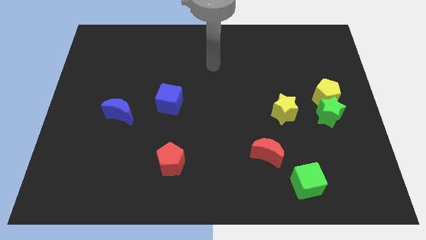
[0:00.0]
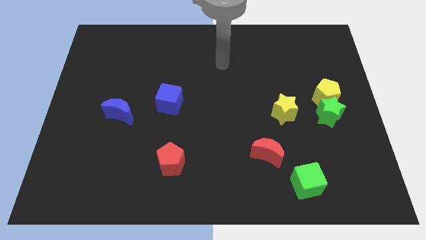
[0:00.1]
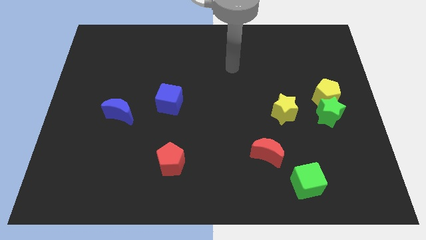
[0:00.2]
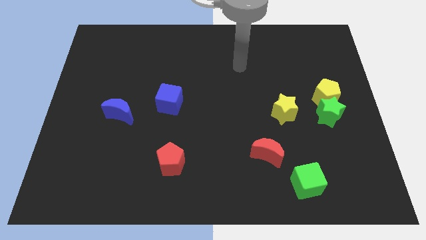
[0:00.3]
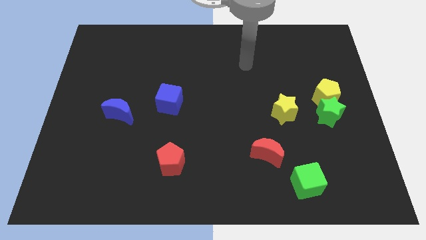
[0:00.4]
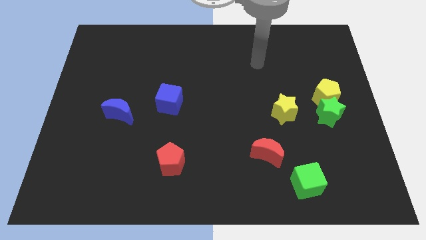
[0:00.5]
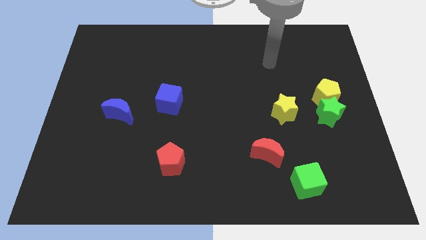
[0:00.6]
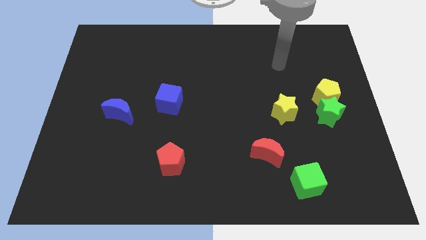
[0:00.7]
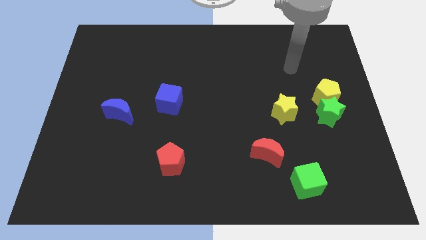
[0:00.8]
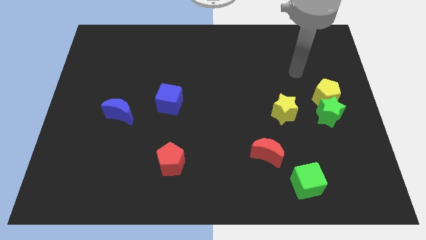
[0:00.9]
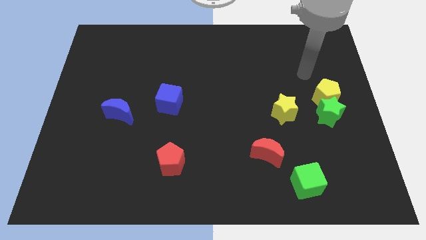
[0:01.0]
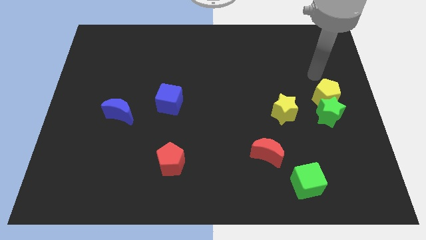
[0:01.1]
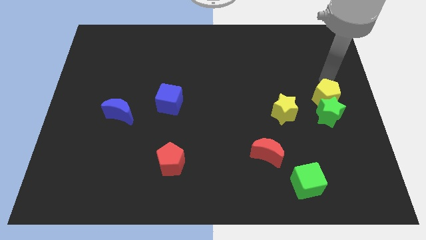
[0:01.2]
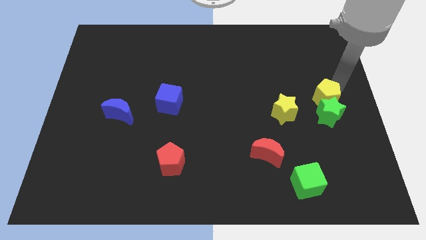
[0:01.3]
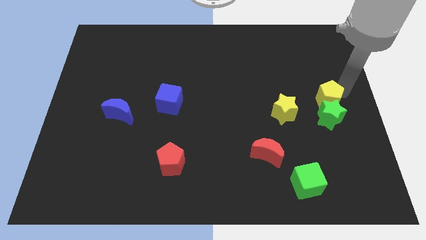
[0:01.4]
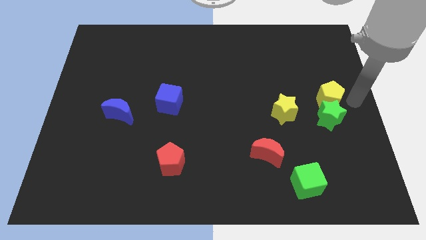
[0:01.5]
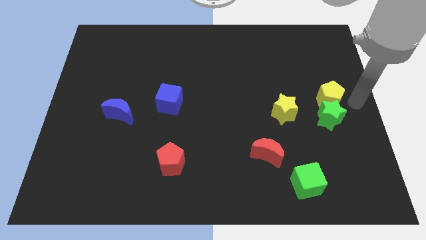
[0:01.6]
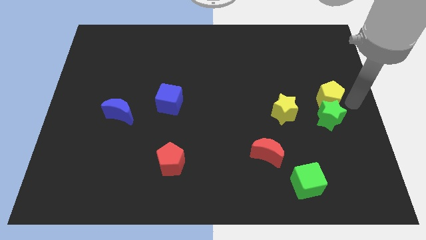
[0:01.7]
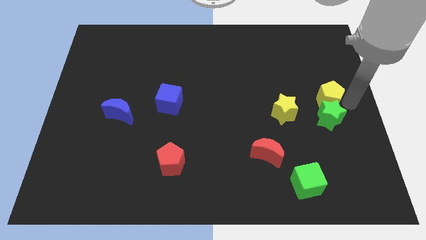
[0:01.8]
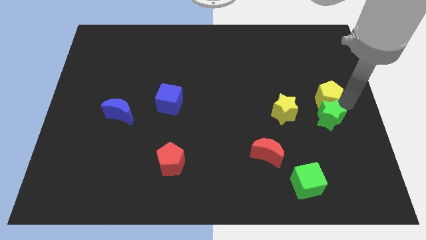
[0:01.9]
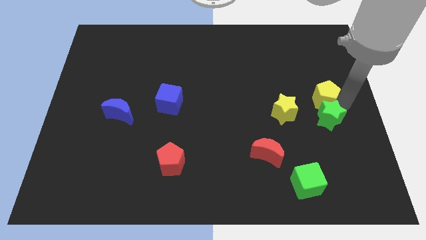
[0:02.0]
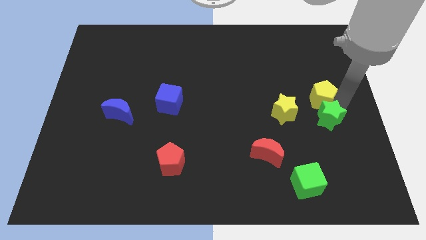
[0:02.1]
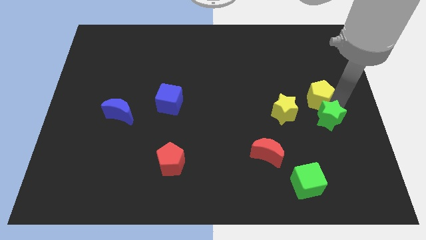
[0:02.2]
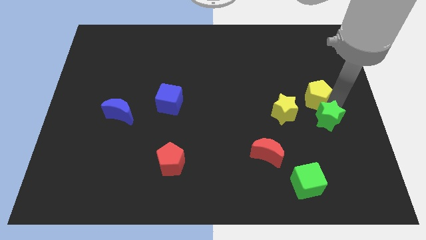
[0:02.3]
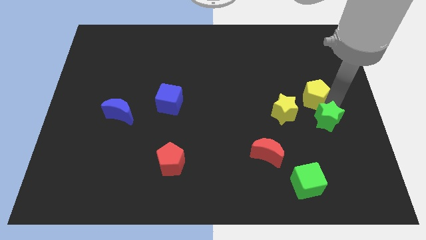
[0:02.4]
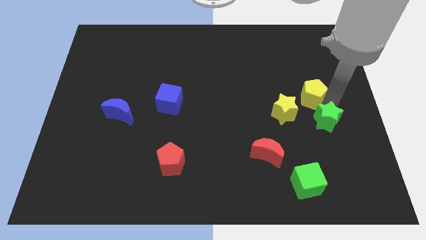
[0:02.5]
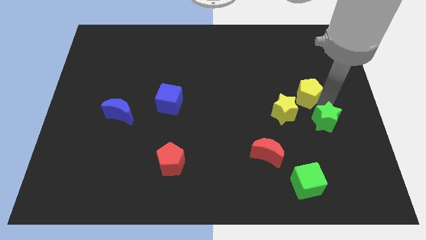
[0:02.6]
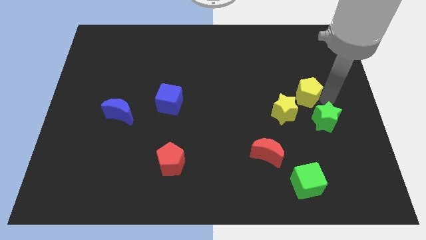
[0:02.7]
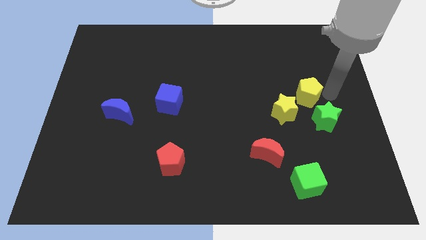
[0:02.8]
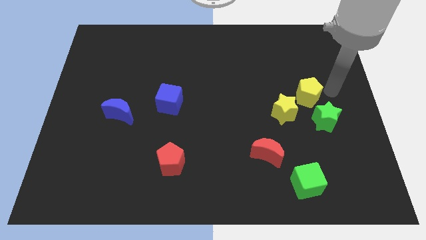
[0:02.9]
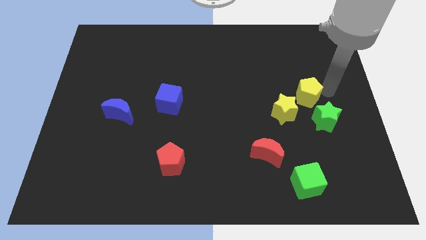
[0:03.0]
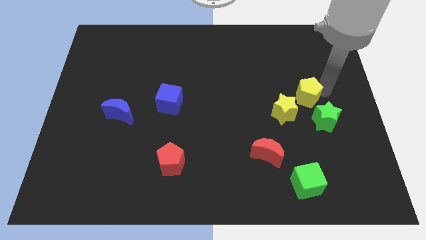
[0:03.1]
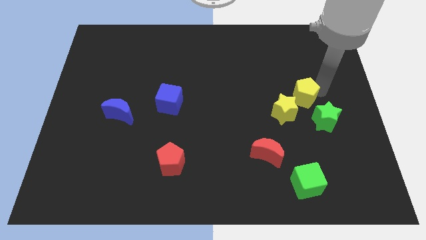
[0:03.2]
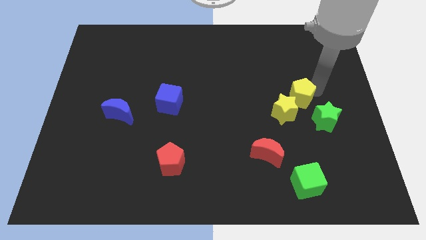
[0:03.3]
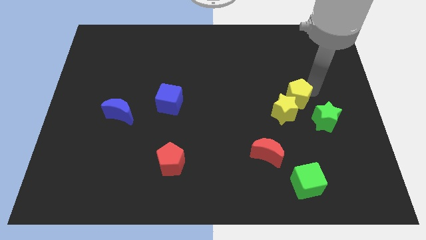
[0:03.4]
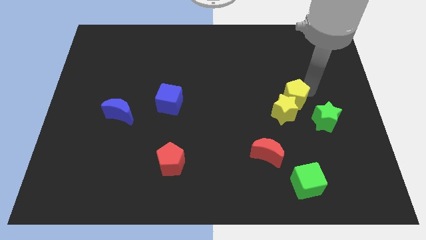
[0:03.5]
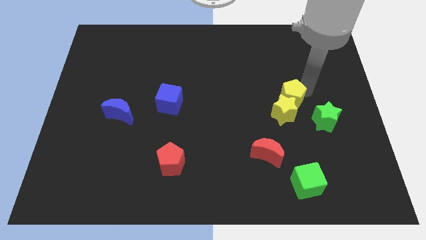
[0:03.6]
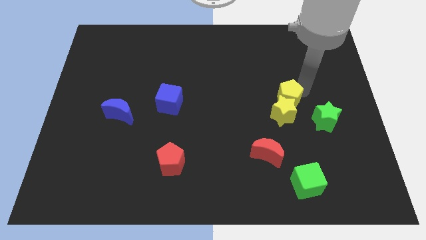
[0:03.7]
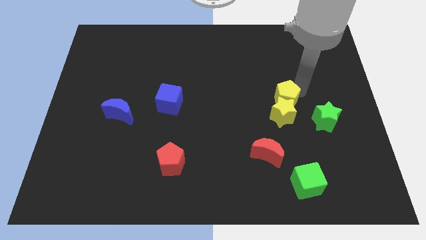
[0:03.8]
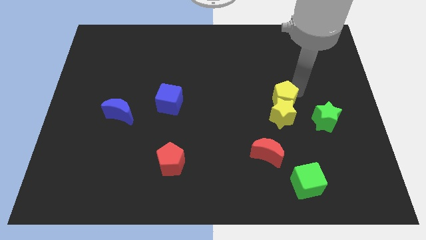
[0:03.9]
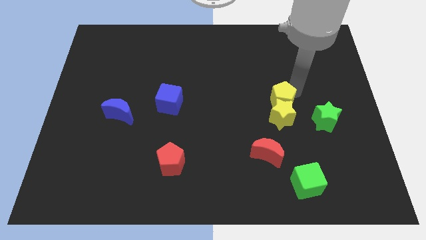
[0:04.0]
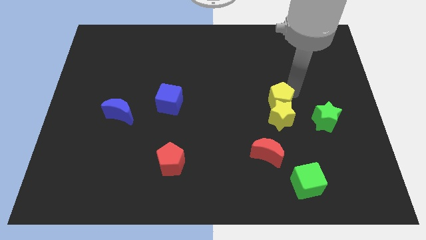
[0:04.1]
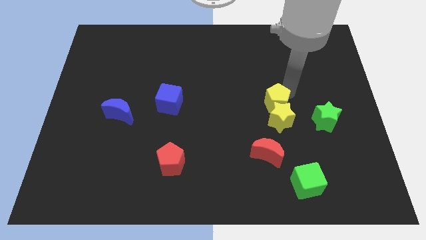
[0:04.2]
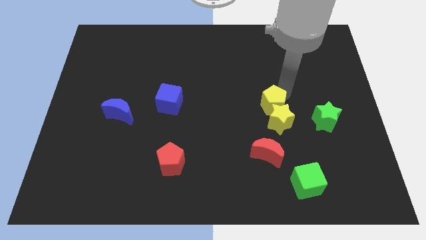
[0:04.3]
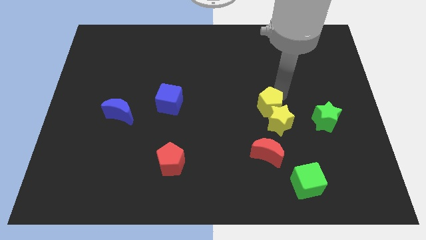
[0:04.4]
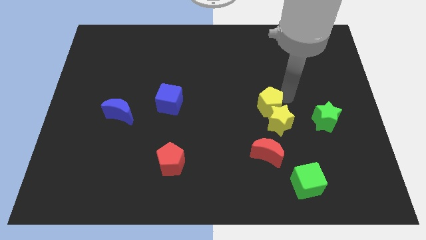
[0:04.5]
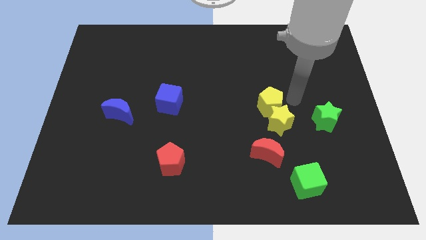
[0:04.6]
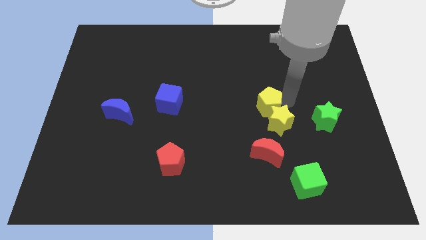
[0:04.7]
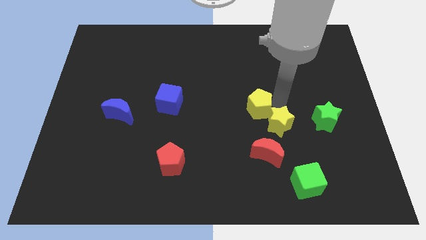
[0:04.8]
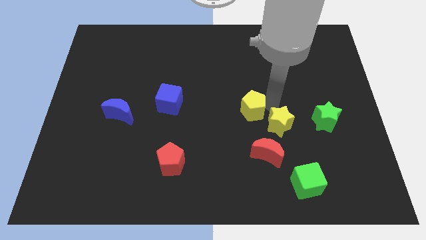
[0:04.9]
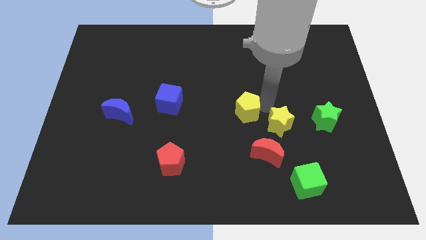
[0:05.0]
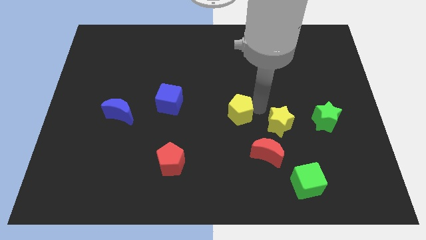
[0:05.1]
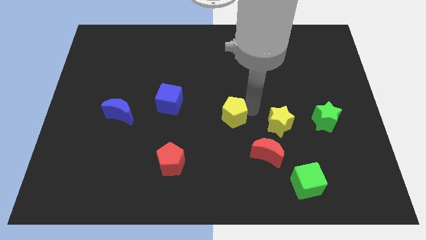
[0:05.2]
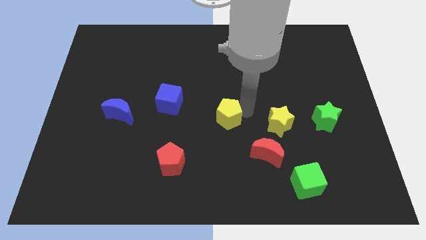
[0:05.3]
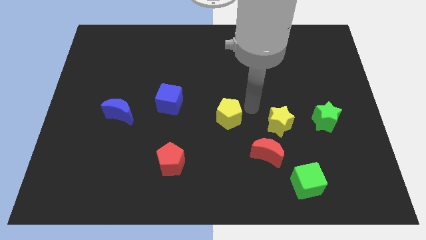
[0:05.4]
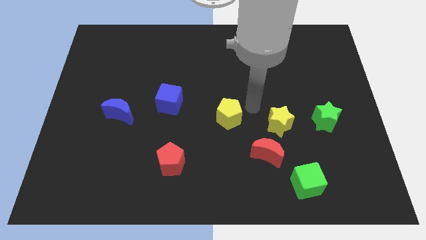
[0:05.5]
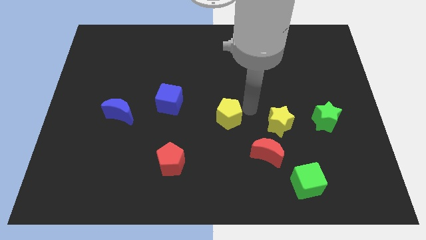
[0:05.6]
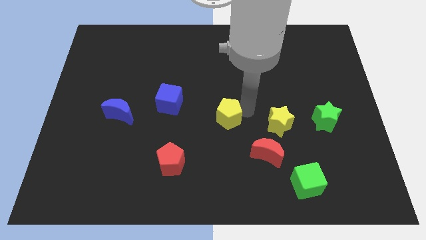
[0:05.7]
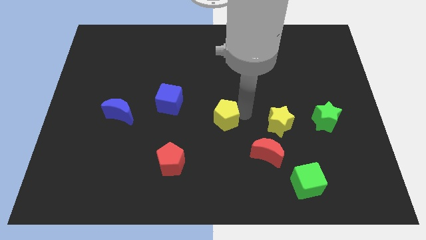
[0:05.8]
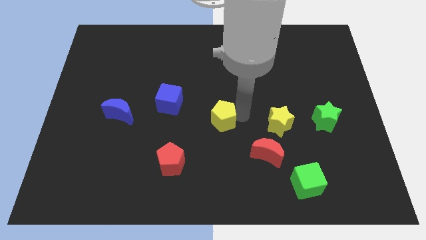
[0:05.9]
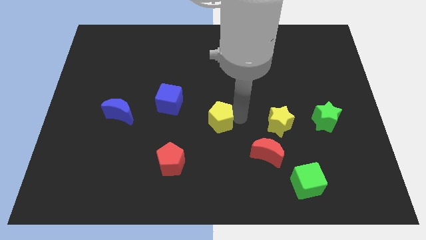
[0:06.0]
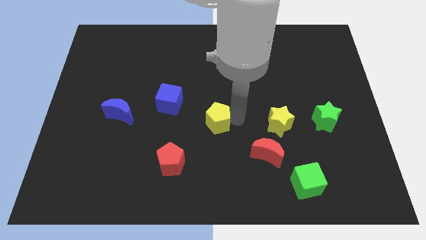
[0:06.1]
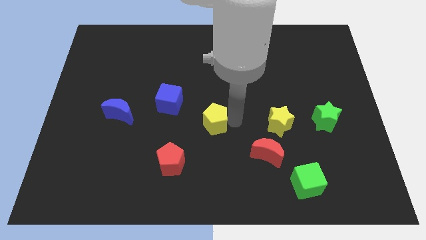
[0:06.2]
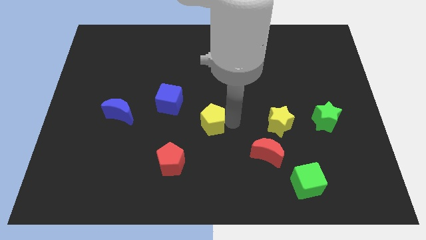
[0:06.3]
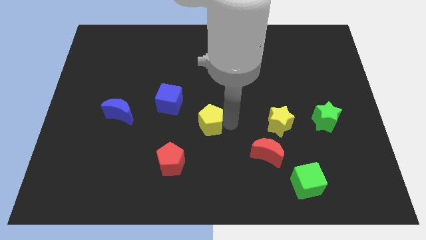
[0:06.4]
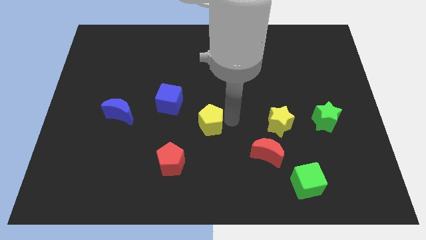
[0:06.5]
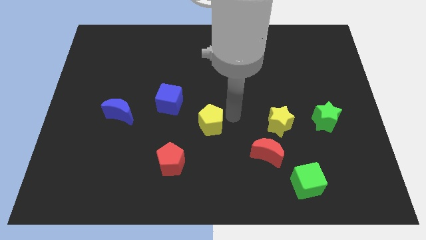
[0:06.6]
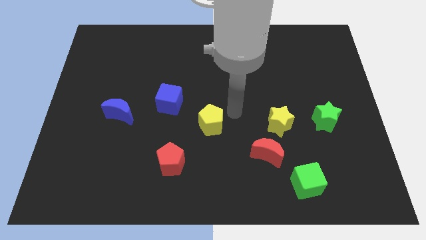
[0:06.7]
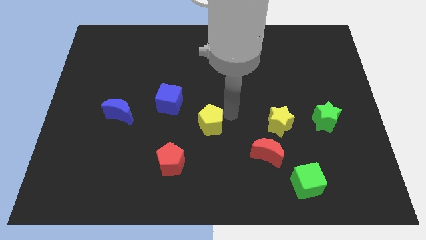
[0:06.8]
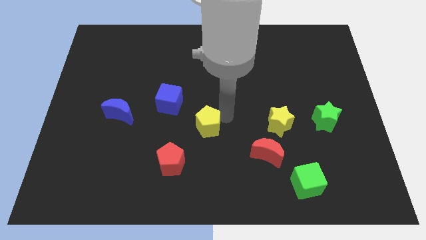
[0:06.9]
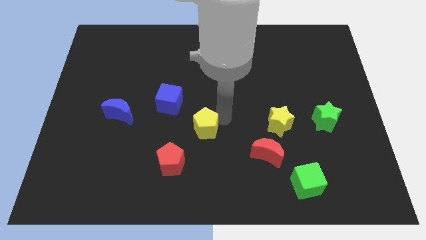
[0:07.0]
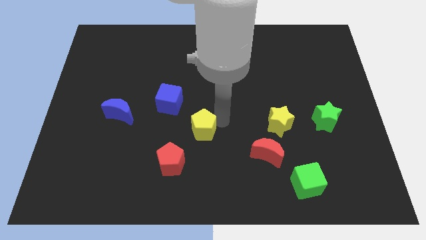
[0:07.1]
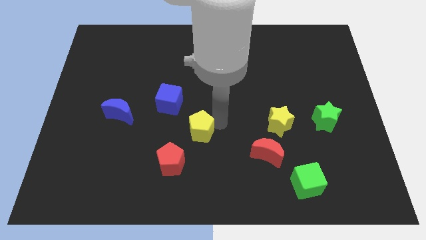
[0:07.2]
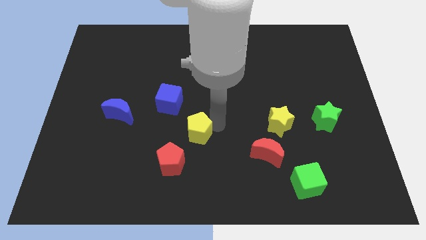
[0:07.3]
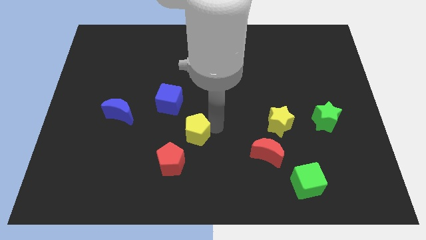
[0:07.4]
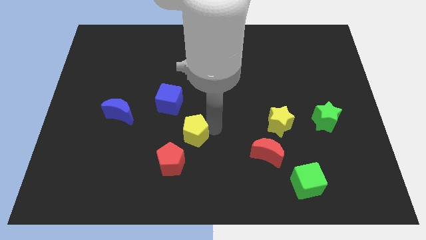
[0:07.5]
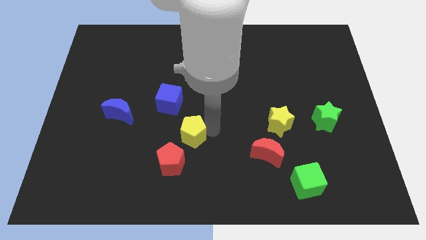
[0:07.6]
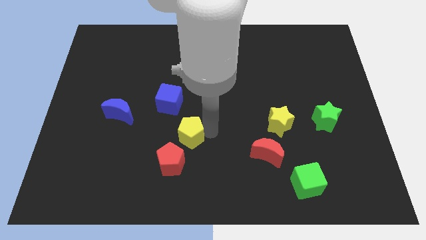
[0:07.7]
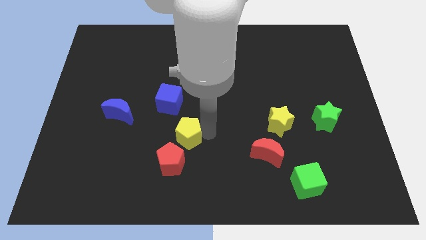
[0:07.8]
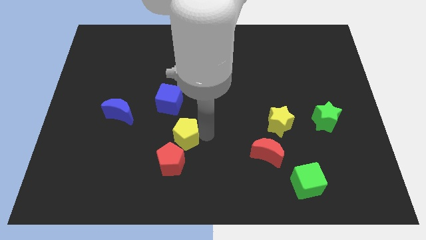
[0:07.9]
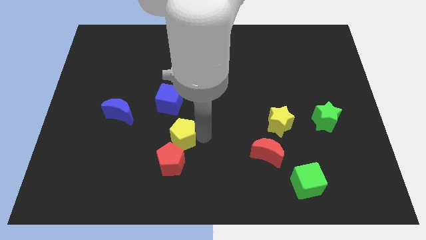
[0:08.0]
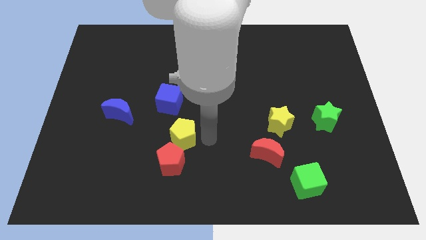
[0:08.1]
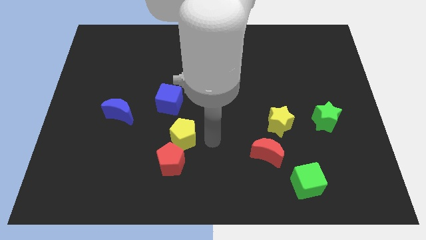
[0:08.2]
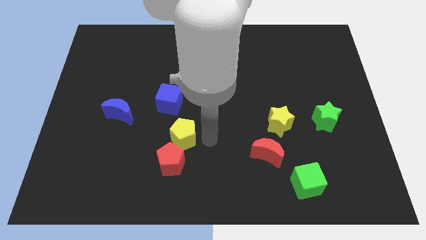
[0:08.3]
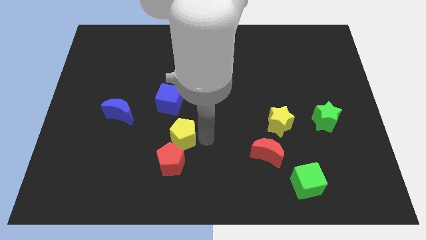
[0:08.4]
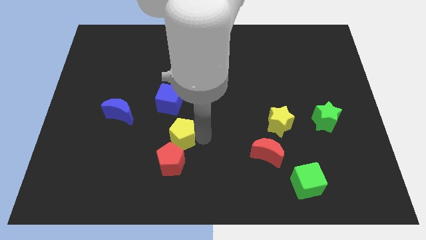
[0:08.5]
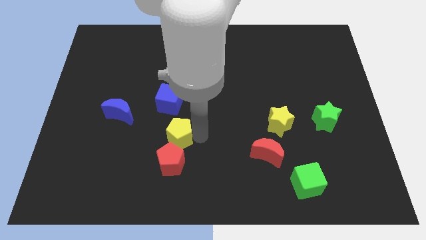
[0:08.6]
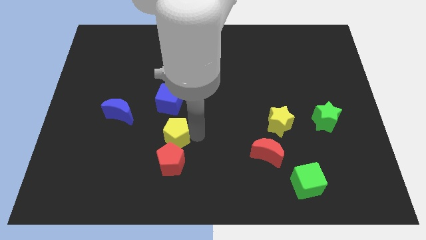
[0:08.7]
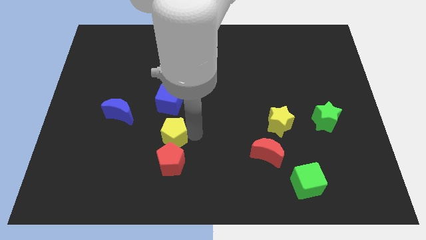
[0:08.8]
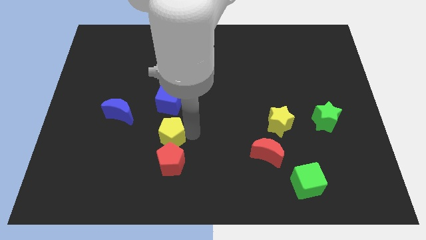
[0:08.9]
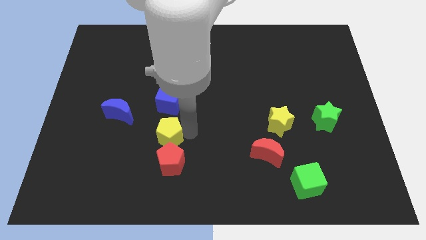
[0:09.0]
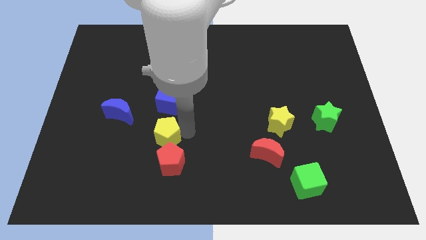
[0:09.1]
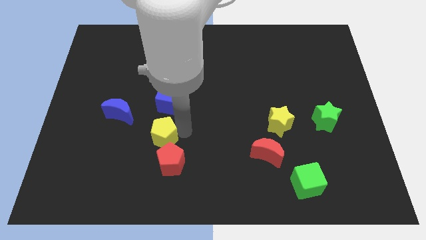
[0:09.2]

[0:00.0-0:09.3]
push the yellow pentagon diagonally down and to the right of the blue moon
